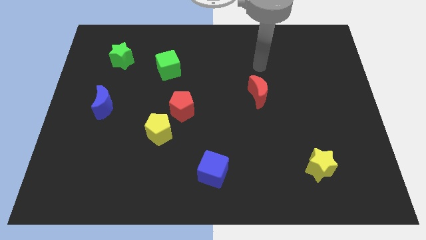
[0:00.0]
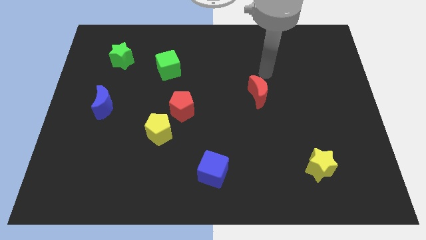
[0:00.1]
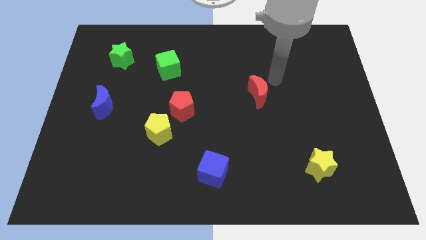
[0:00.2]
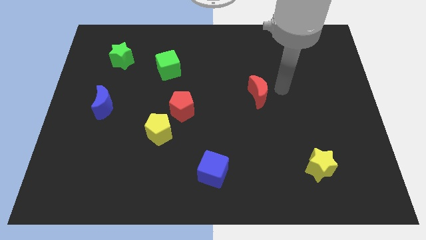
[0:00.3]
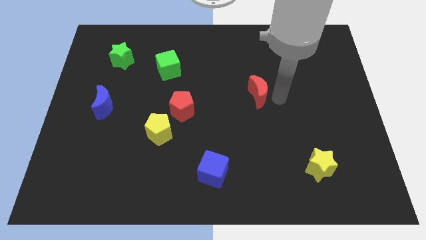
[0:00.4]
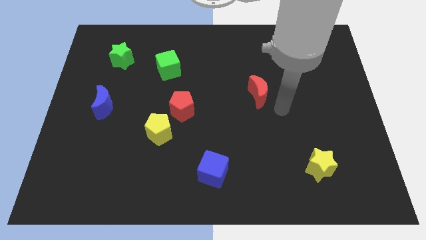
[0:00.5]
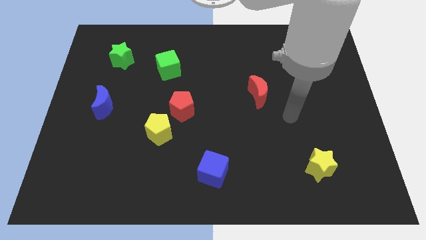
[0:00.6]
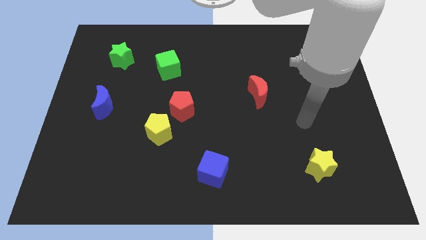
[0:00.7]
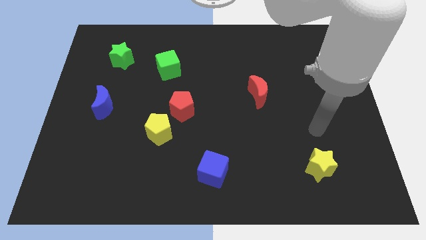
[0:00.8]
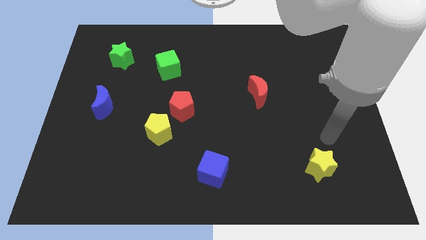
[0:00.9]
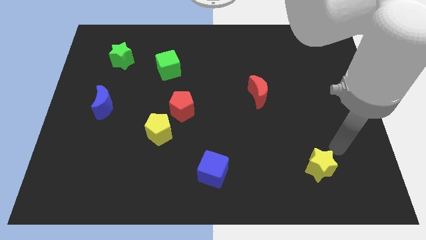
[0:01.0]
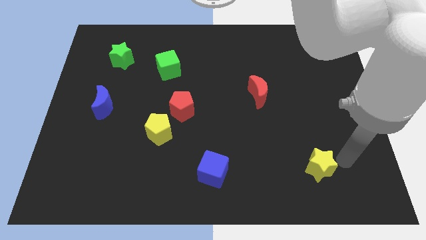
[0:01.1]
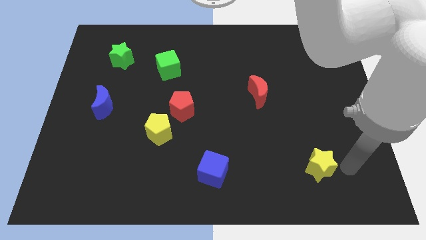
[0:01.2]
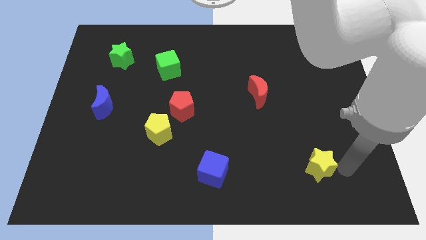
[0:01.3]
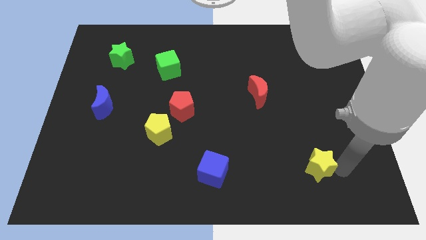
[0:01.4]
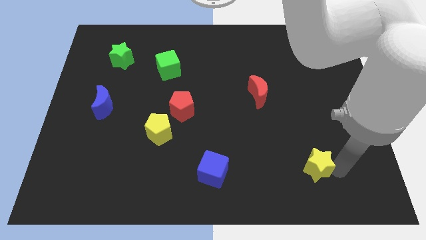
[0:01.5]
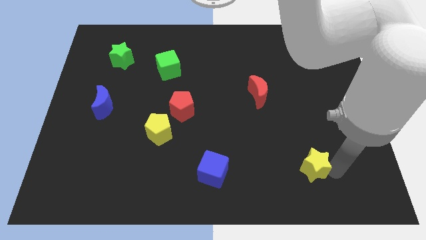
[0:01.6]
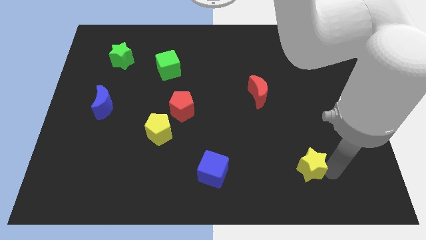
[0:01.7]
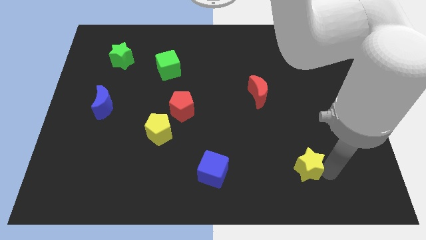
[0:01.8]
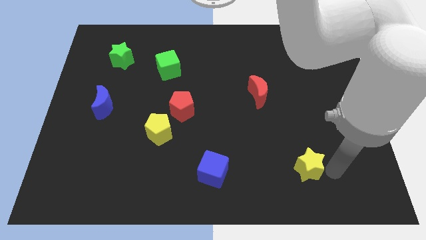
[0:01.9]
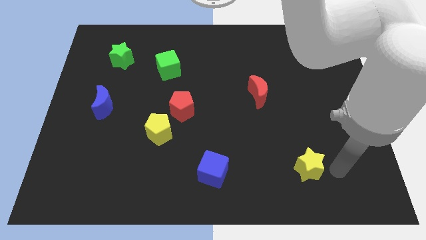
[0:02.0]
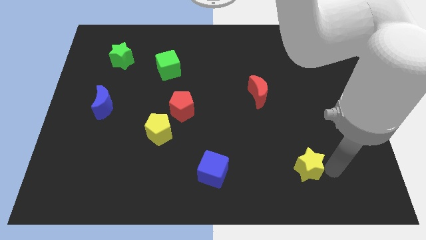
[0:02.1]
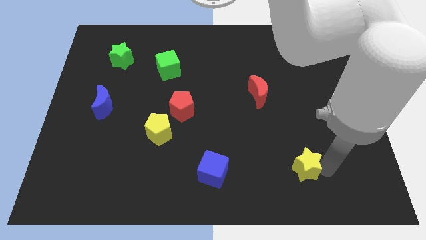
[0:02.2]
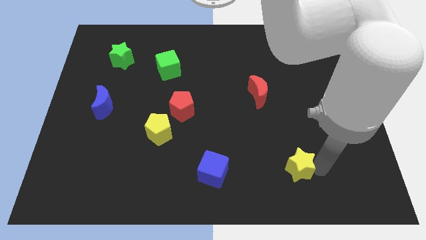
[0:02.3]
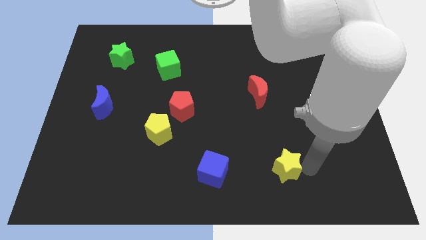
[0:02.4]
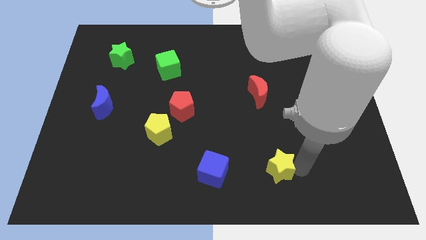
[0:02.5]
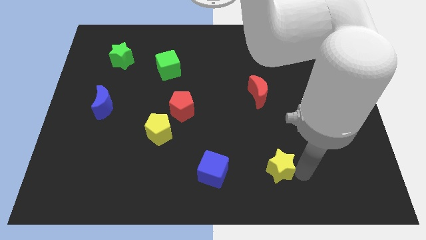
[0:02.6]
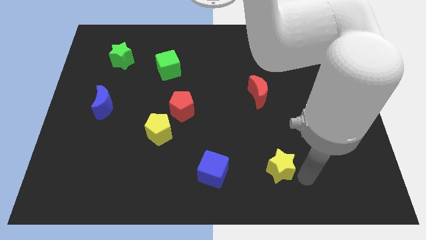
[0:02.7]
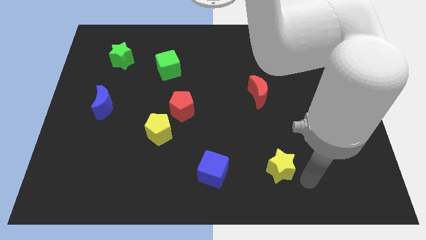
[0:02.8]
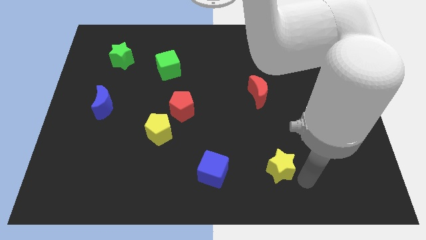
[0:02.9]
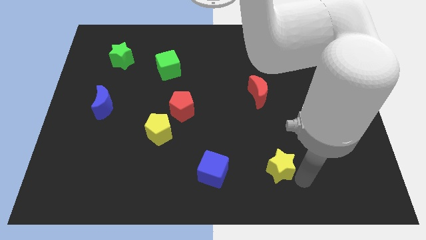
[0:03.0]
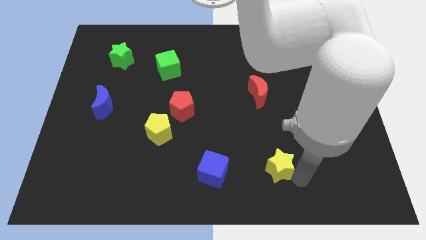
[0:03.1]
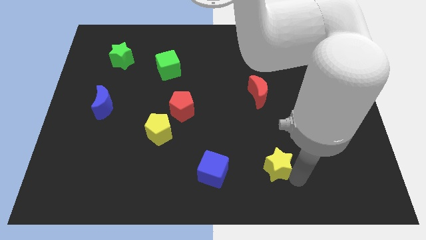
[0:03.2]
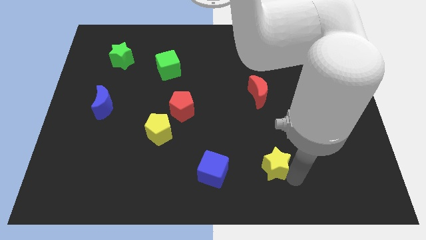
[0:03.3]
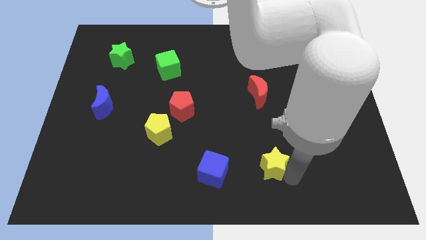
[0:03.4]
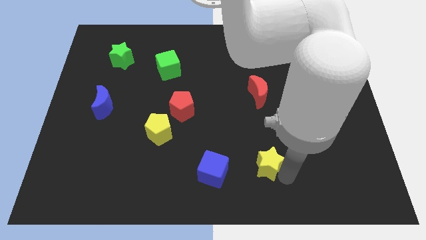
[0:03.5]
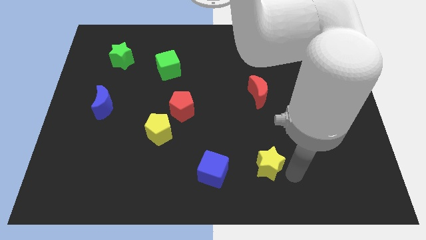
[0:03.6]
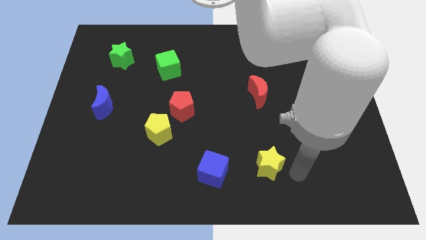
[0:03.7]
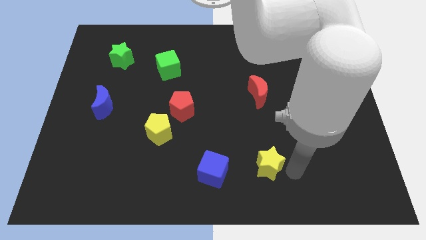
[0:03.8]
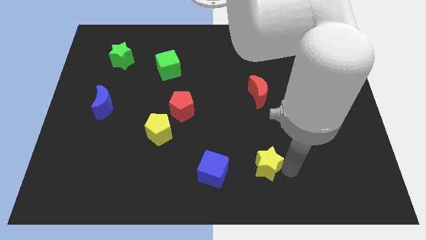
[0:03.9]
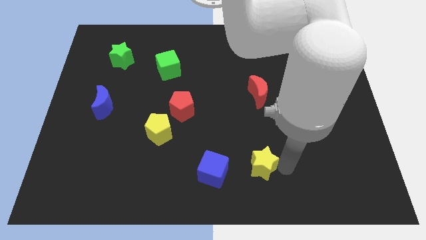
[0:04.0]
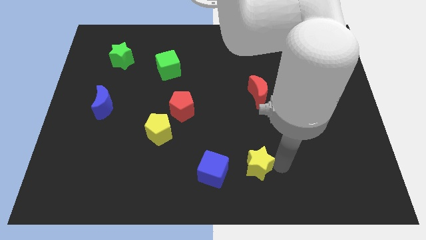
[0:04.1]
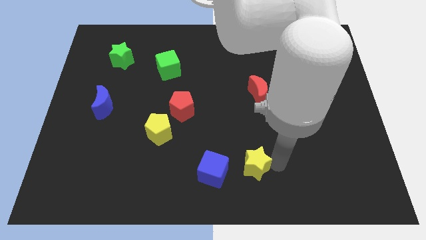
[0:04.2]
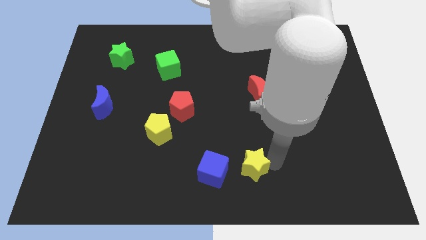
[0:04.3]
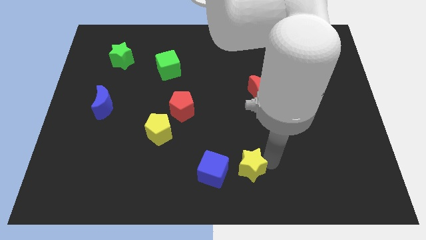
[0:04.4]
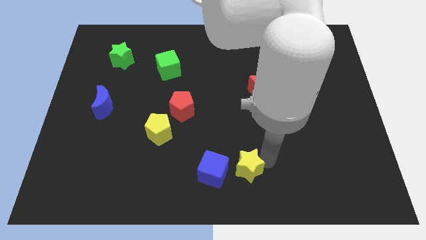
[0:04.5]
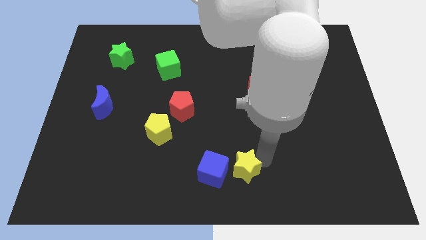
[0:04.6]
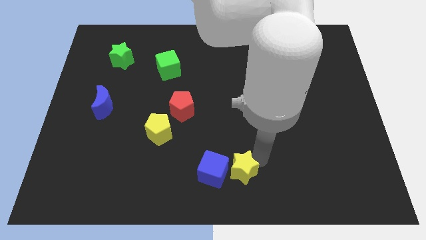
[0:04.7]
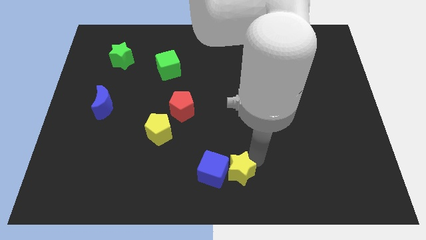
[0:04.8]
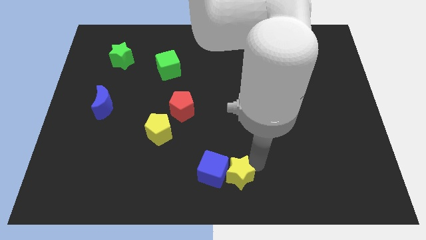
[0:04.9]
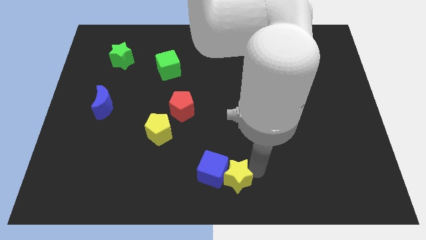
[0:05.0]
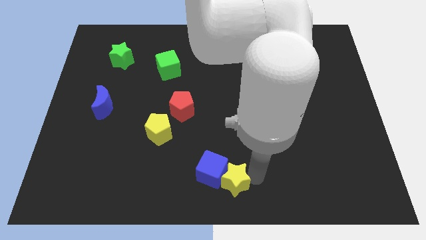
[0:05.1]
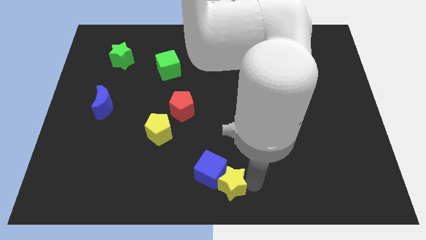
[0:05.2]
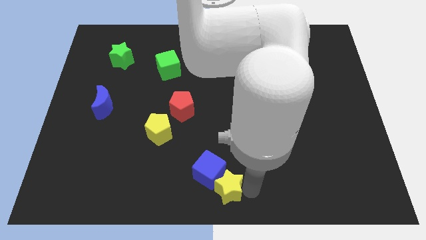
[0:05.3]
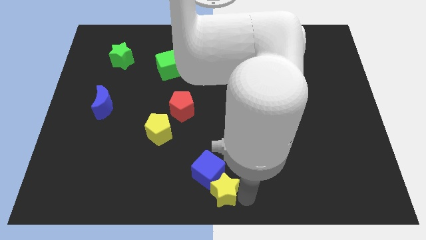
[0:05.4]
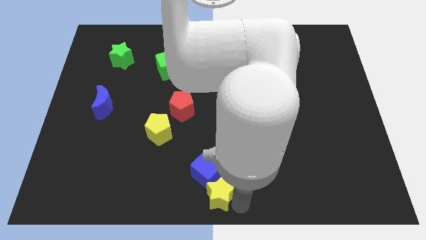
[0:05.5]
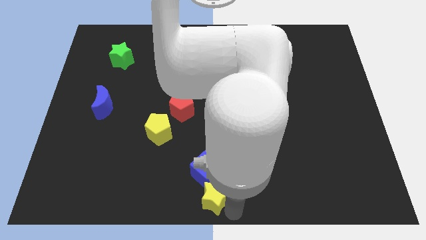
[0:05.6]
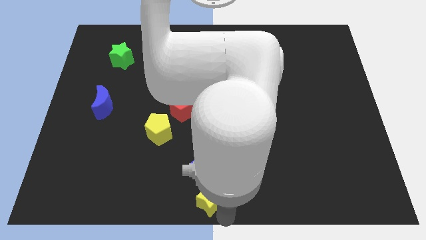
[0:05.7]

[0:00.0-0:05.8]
push the yellow star to the left

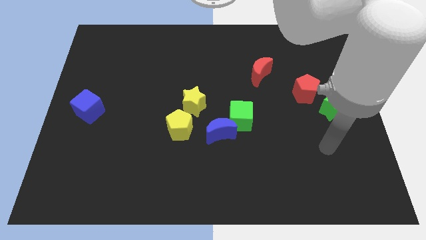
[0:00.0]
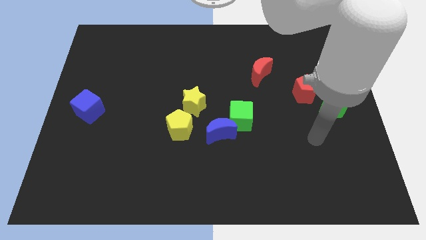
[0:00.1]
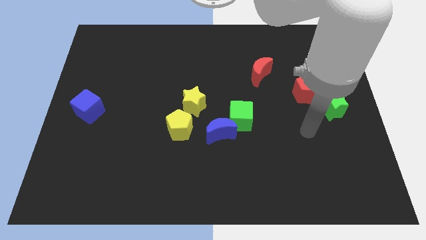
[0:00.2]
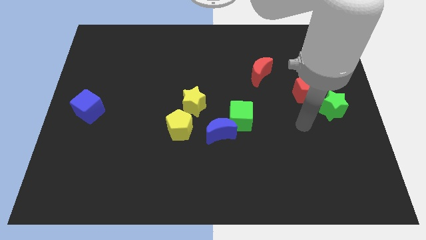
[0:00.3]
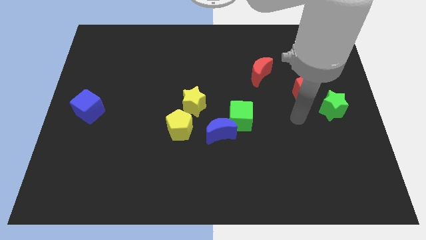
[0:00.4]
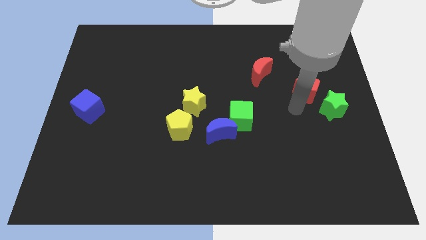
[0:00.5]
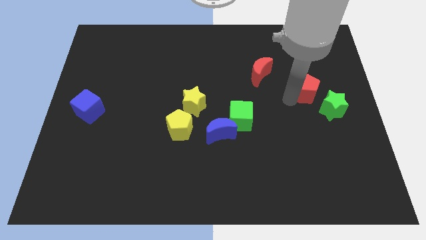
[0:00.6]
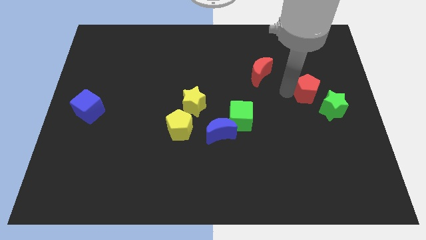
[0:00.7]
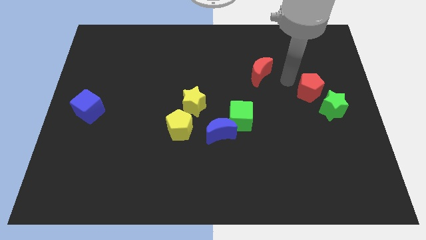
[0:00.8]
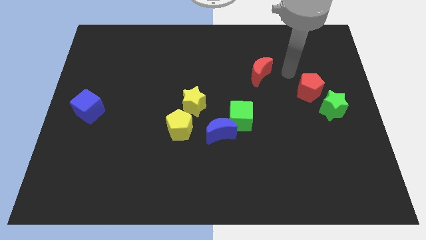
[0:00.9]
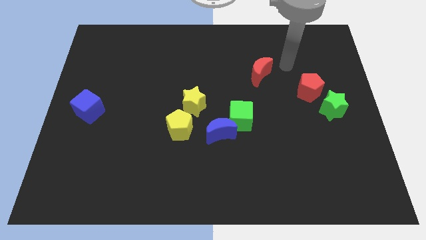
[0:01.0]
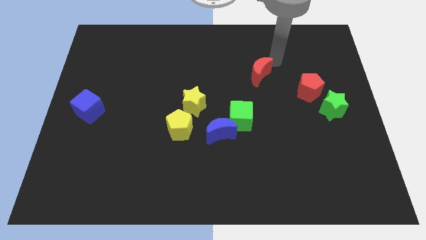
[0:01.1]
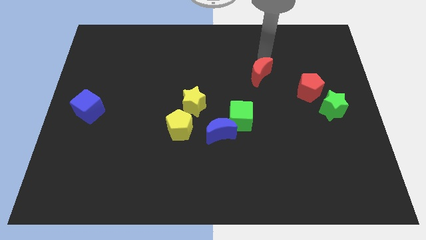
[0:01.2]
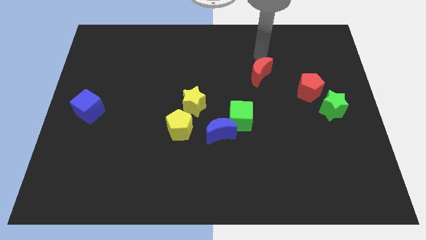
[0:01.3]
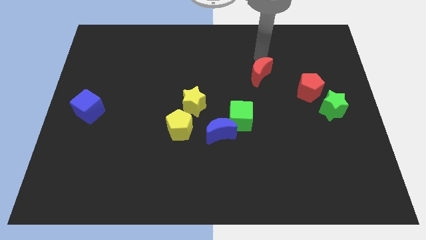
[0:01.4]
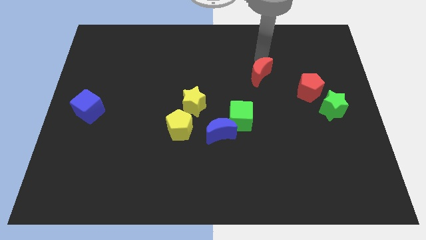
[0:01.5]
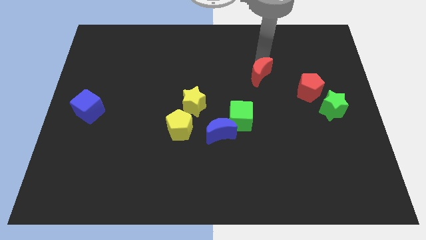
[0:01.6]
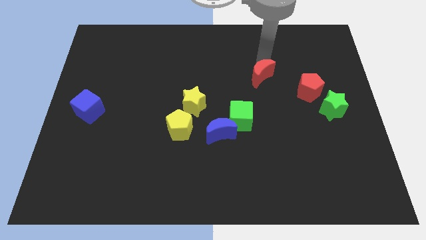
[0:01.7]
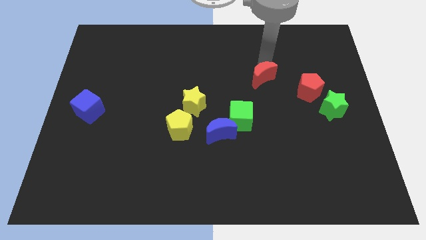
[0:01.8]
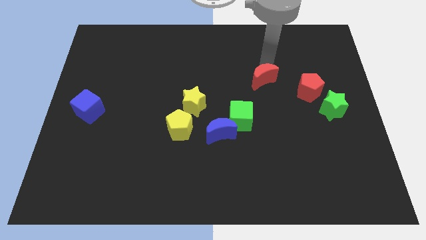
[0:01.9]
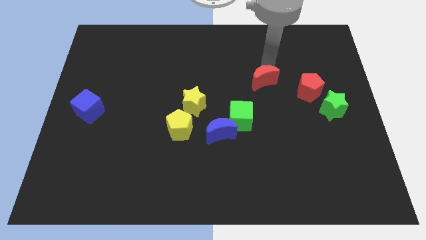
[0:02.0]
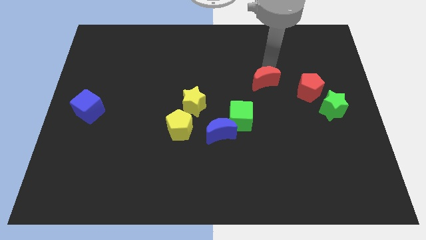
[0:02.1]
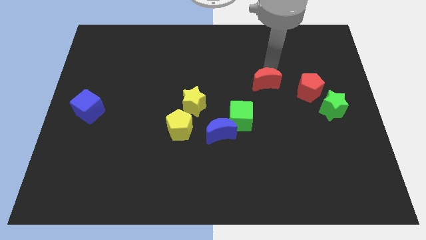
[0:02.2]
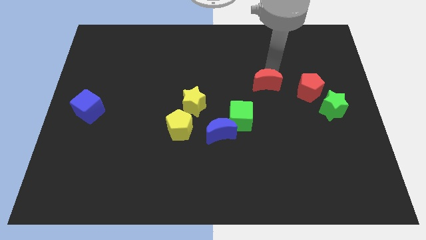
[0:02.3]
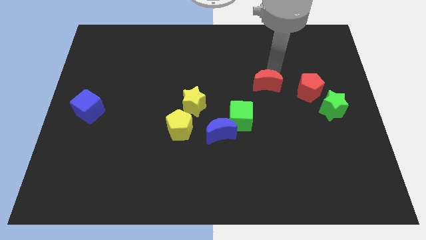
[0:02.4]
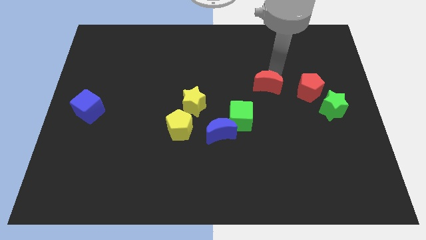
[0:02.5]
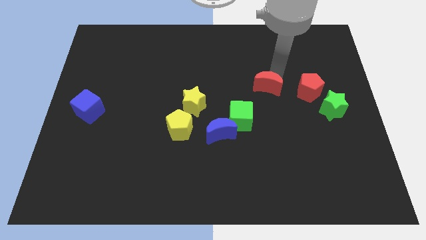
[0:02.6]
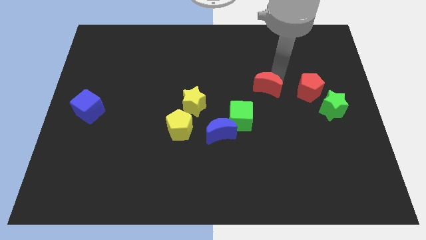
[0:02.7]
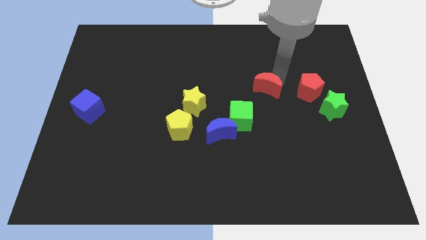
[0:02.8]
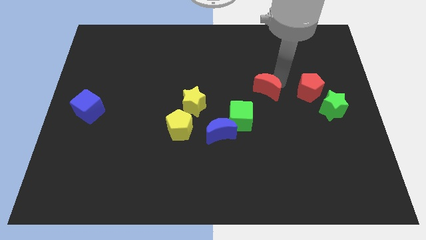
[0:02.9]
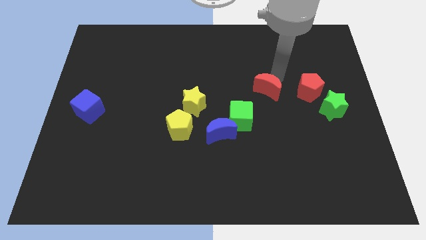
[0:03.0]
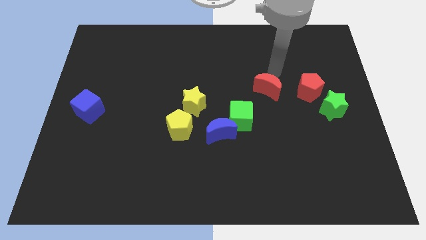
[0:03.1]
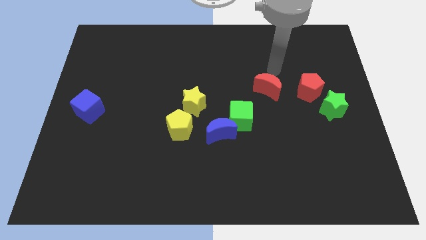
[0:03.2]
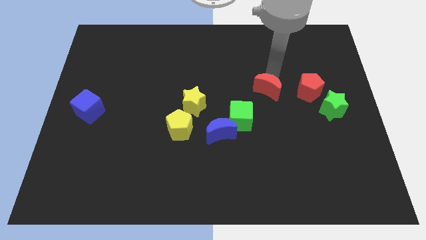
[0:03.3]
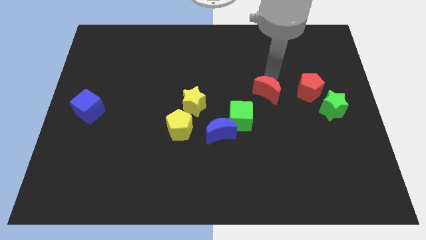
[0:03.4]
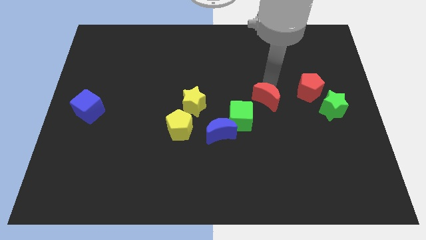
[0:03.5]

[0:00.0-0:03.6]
slightly push the red moon downwards
